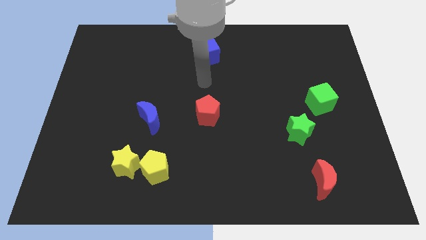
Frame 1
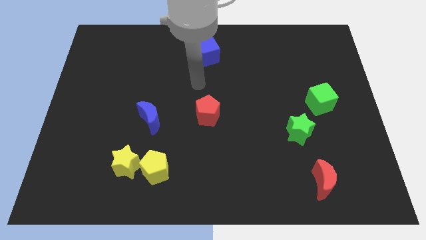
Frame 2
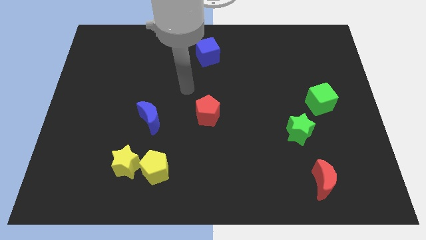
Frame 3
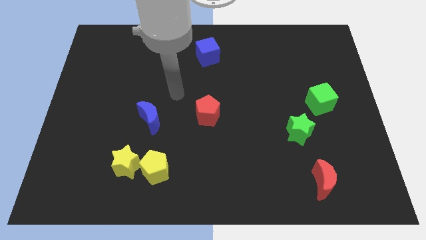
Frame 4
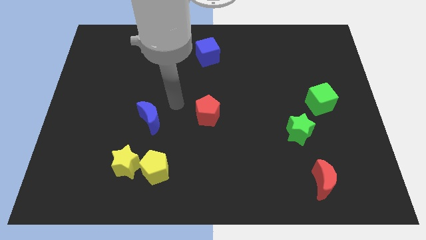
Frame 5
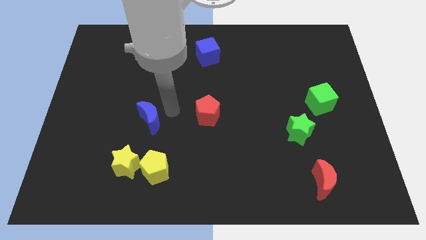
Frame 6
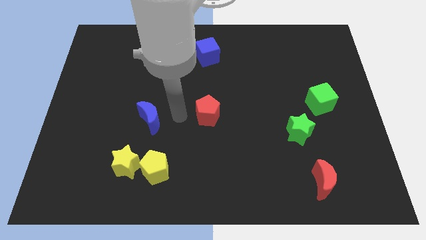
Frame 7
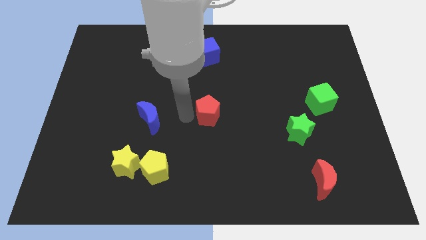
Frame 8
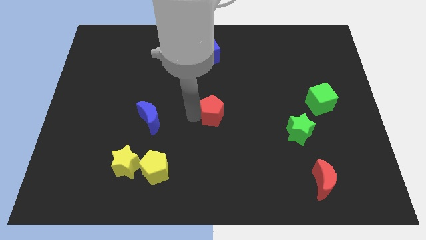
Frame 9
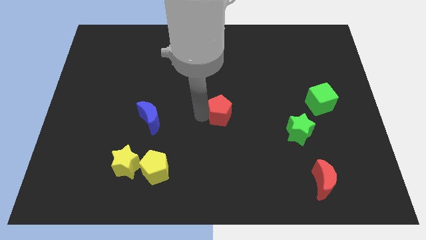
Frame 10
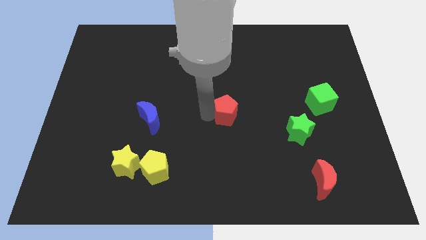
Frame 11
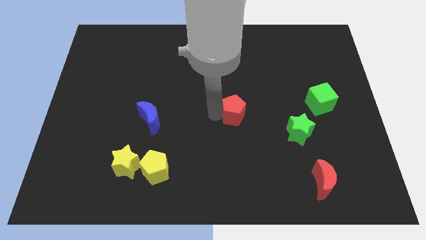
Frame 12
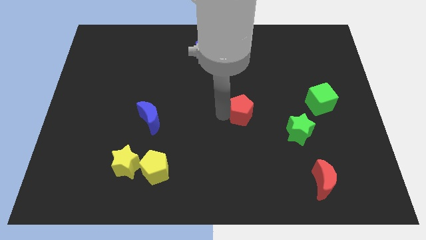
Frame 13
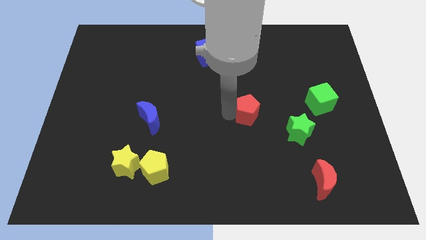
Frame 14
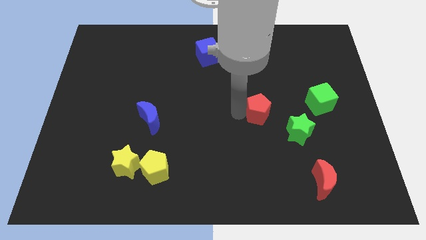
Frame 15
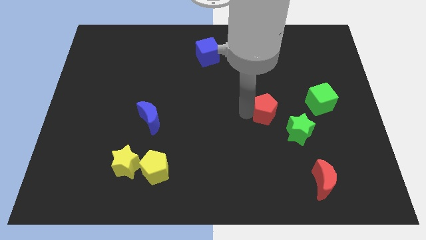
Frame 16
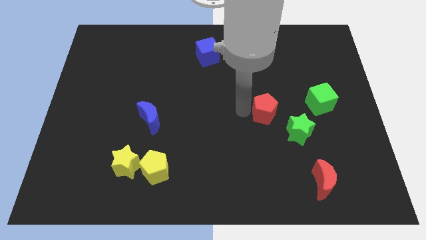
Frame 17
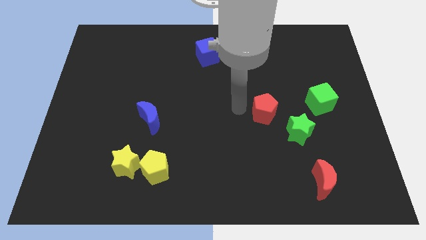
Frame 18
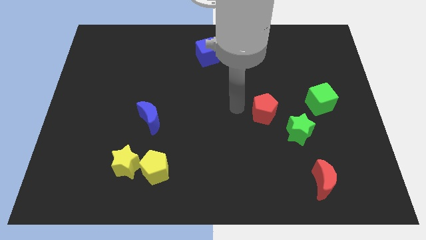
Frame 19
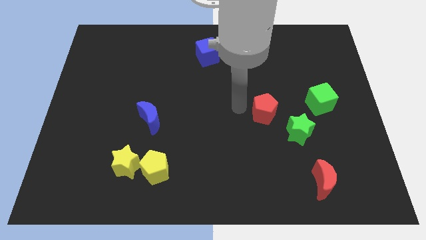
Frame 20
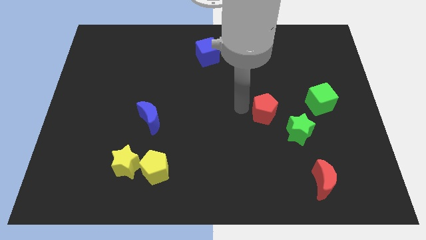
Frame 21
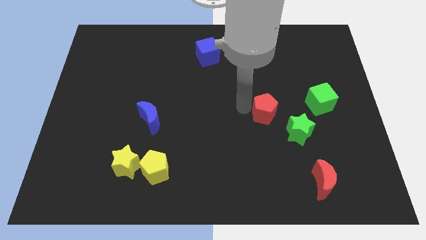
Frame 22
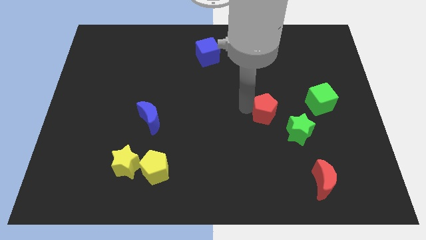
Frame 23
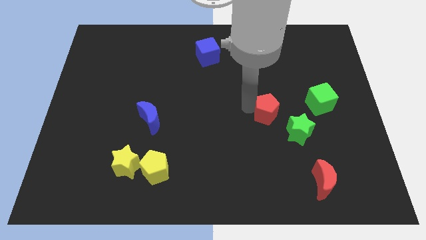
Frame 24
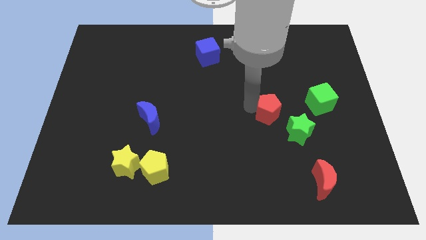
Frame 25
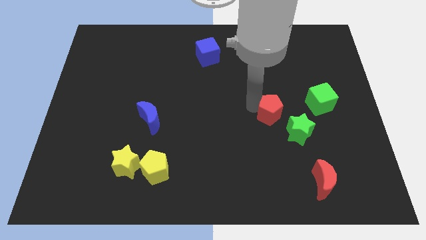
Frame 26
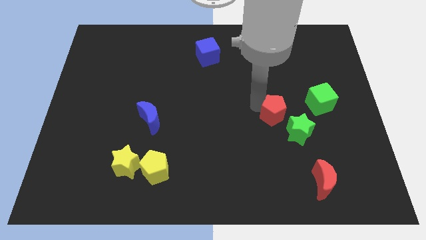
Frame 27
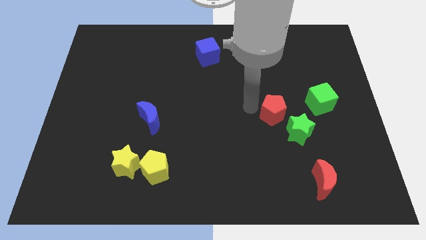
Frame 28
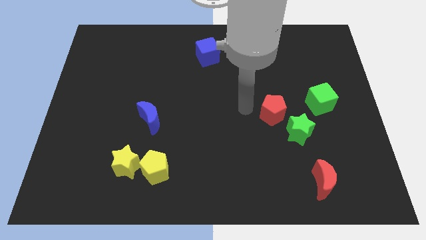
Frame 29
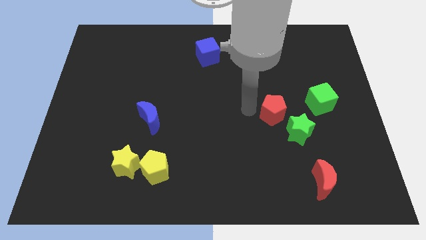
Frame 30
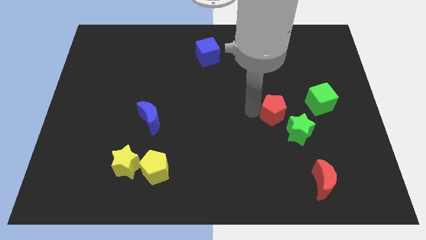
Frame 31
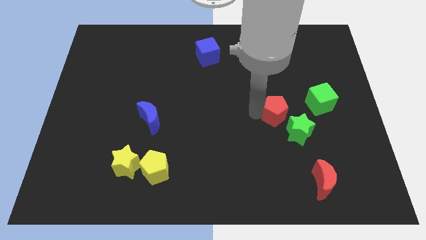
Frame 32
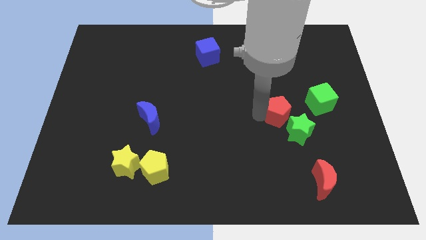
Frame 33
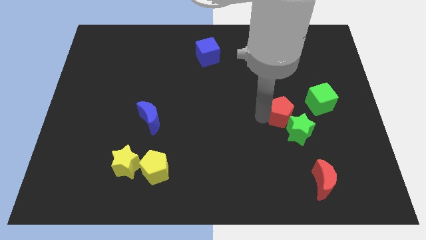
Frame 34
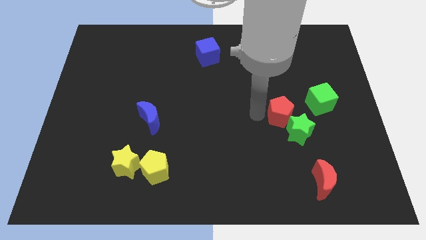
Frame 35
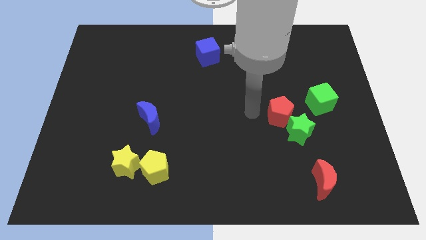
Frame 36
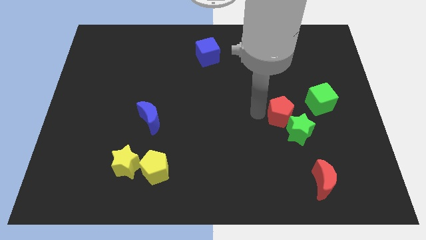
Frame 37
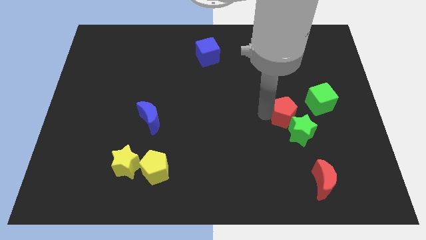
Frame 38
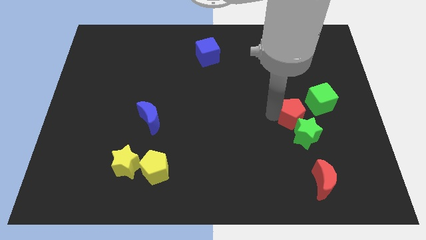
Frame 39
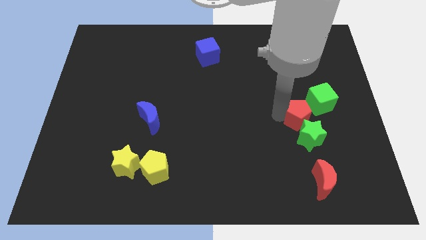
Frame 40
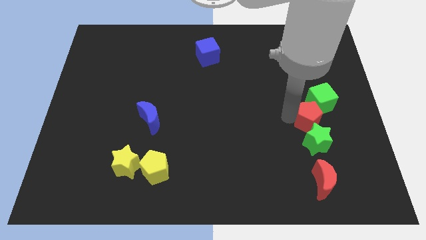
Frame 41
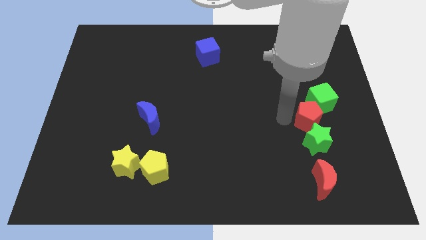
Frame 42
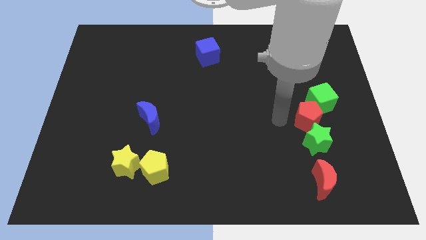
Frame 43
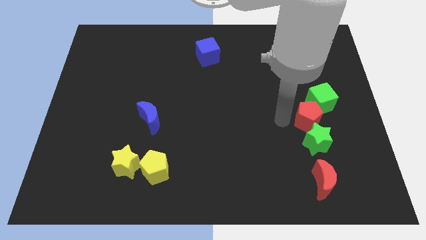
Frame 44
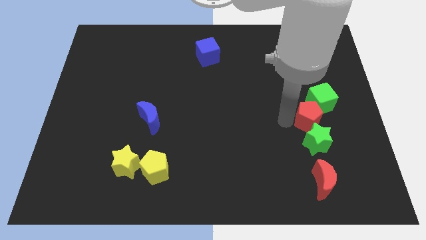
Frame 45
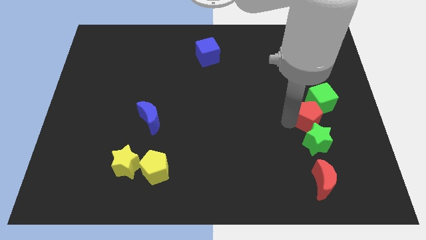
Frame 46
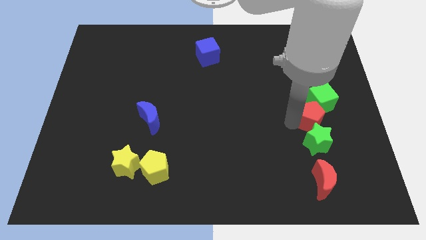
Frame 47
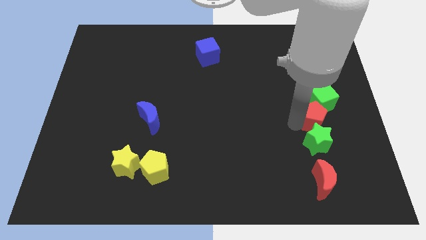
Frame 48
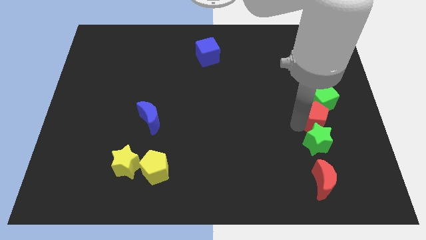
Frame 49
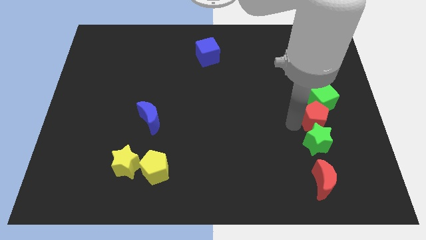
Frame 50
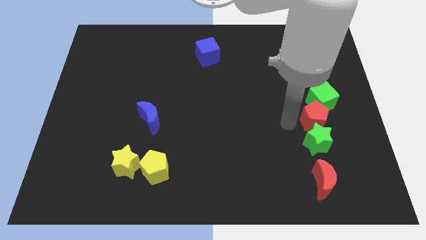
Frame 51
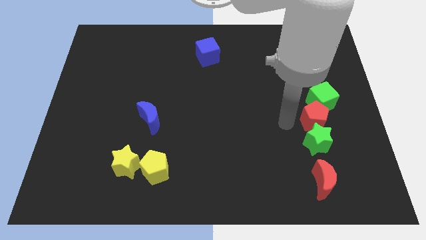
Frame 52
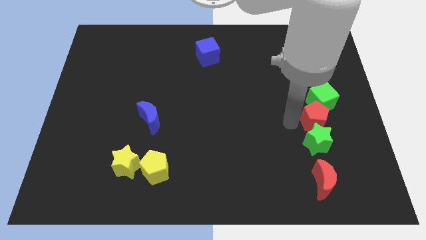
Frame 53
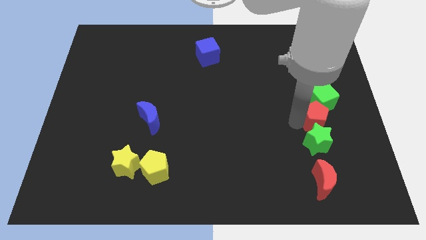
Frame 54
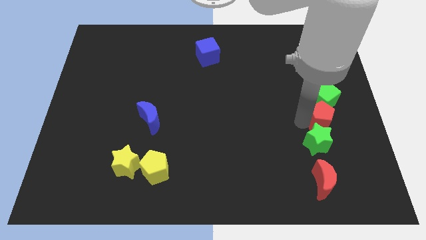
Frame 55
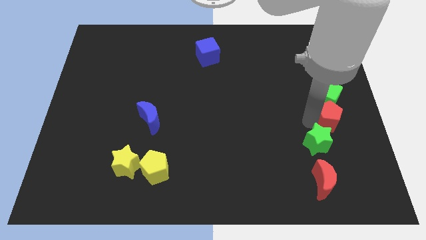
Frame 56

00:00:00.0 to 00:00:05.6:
put the red pentagon to the right side

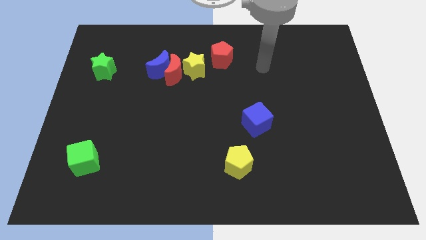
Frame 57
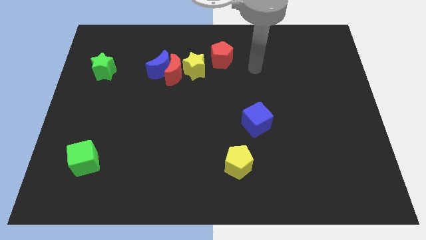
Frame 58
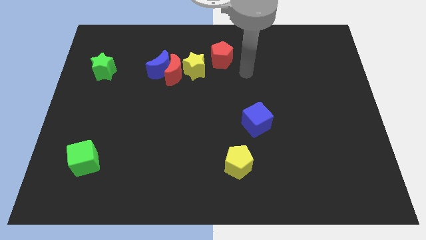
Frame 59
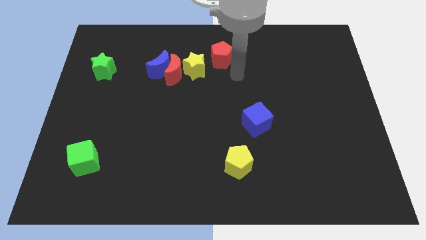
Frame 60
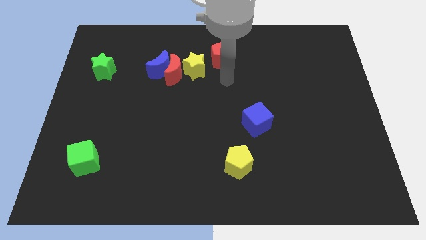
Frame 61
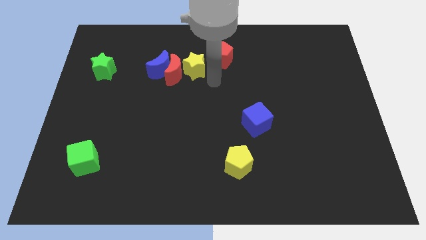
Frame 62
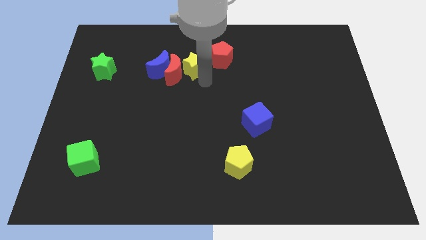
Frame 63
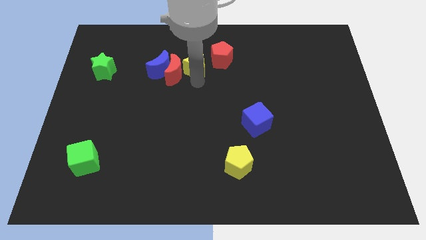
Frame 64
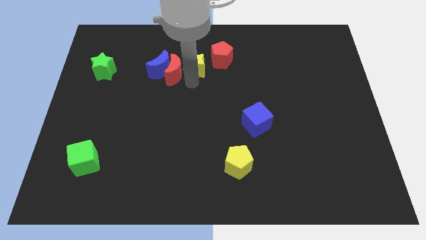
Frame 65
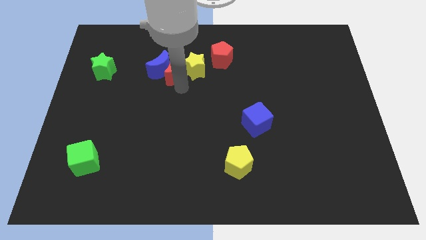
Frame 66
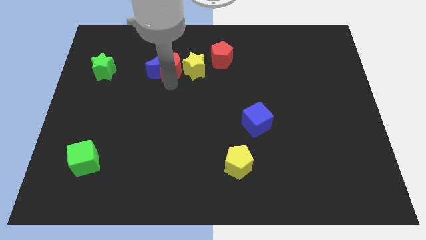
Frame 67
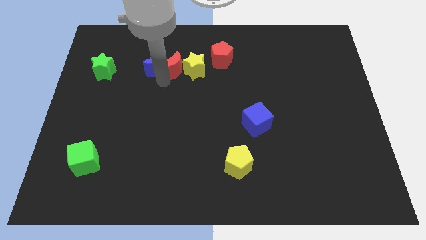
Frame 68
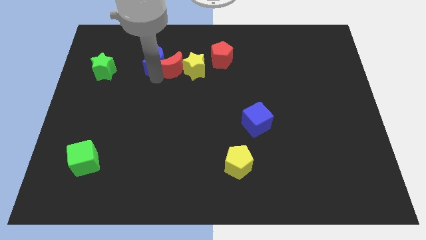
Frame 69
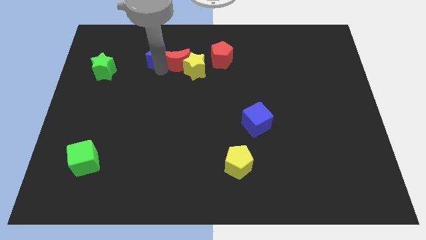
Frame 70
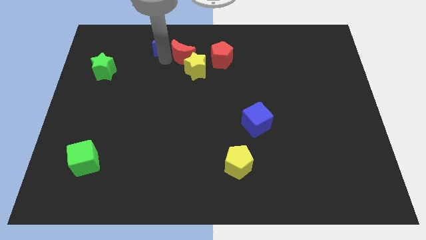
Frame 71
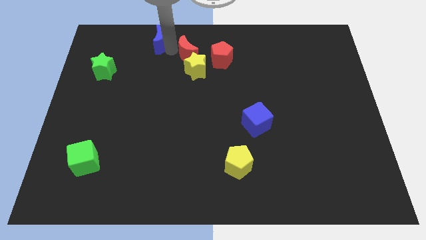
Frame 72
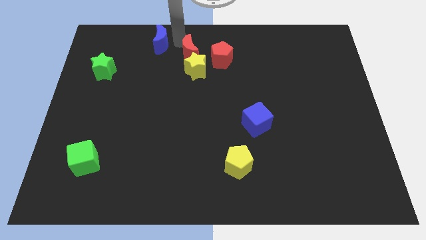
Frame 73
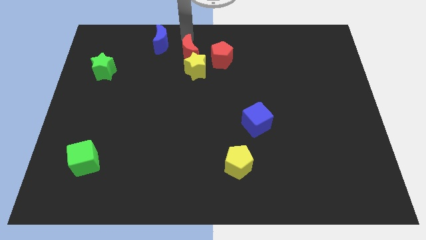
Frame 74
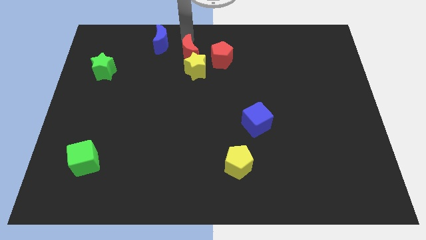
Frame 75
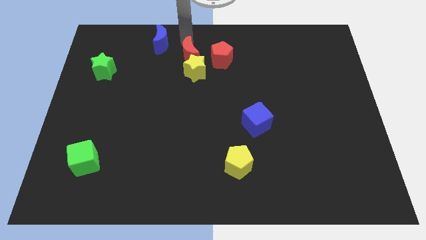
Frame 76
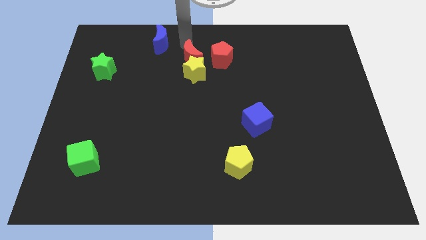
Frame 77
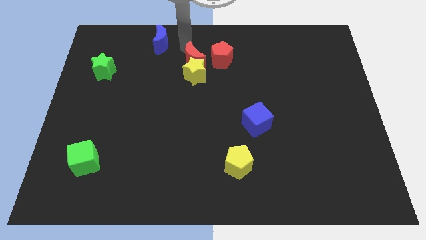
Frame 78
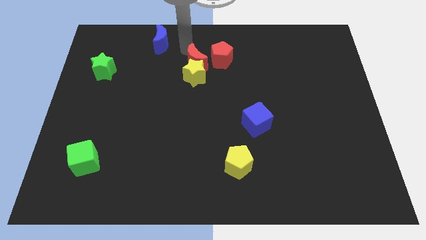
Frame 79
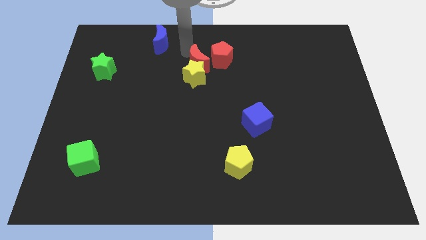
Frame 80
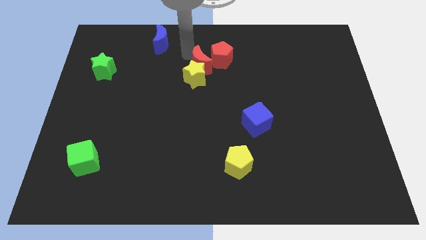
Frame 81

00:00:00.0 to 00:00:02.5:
slide the red moon to the center of the board
